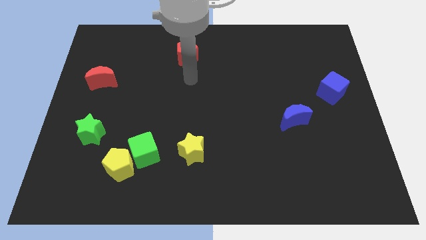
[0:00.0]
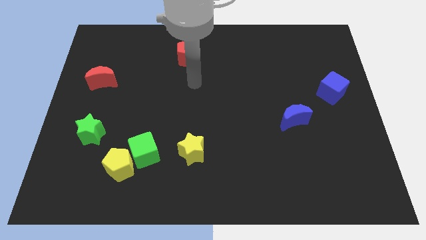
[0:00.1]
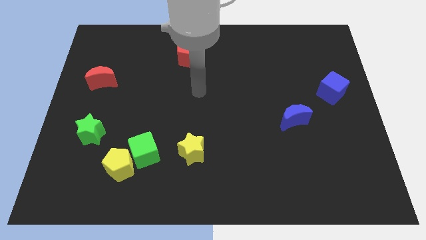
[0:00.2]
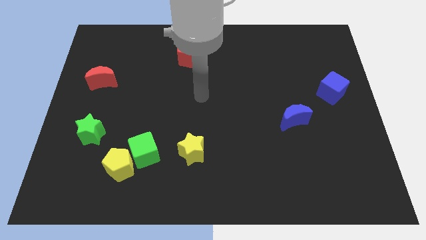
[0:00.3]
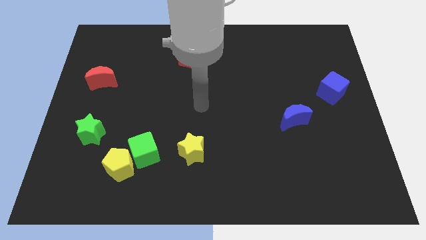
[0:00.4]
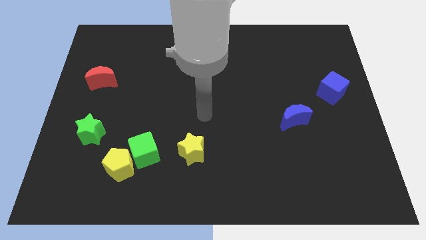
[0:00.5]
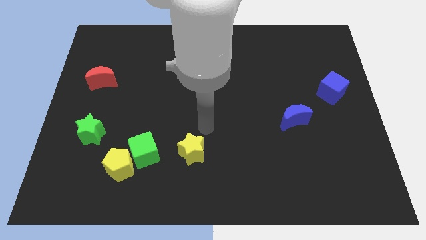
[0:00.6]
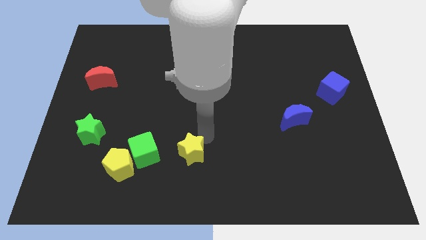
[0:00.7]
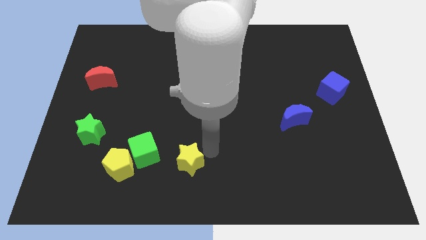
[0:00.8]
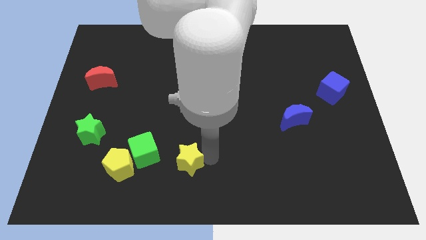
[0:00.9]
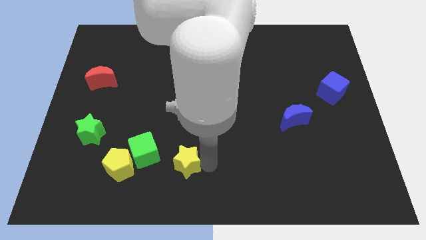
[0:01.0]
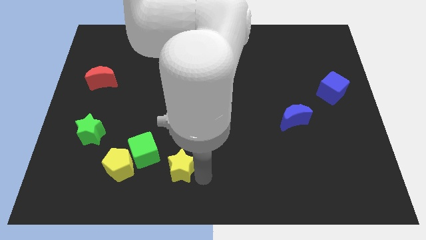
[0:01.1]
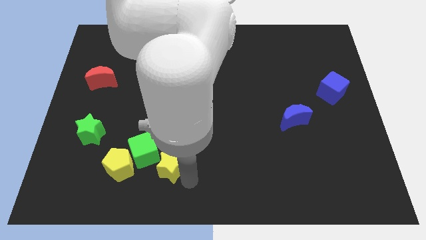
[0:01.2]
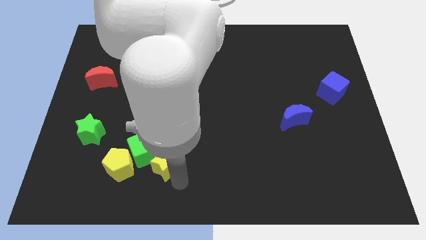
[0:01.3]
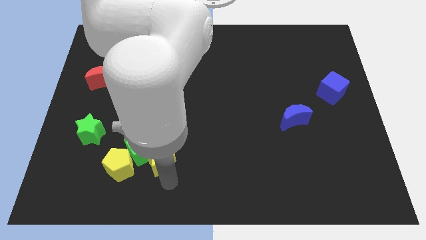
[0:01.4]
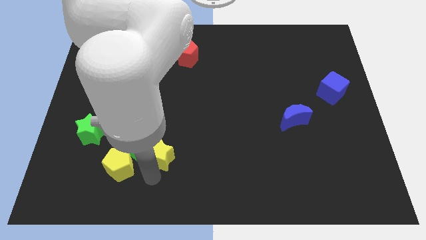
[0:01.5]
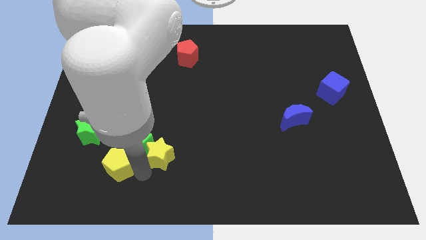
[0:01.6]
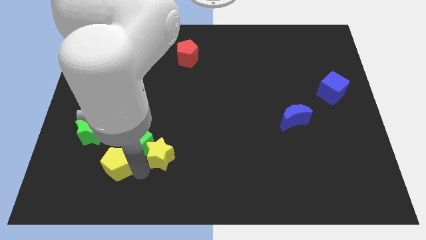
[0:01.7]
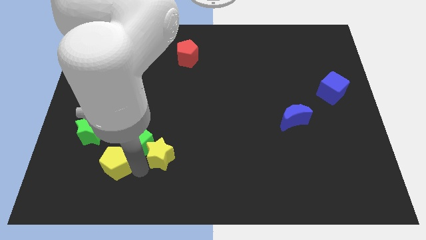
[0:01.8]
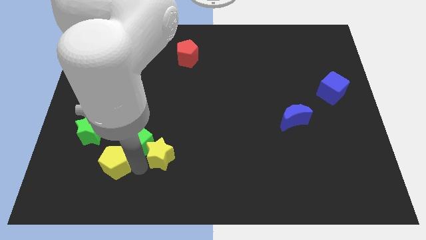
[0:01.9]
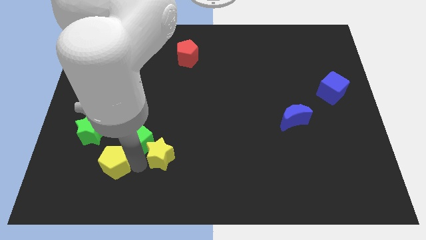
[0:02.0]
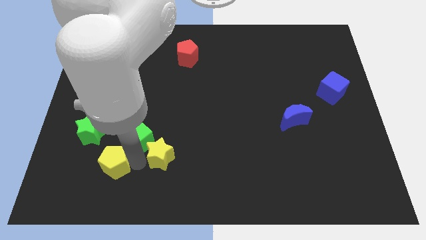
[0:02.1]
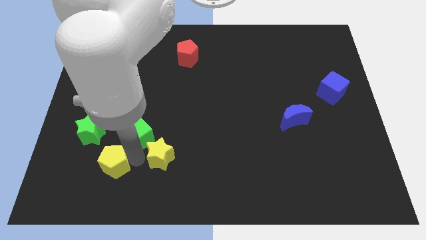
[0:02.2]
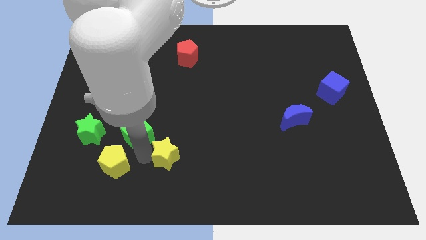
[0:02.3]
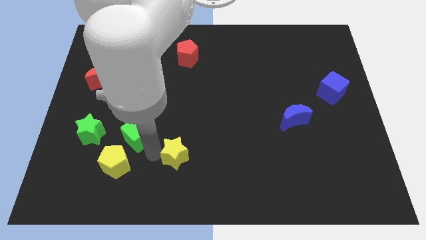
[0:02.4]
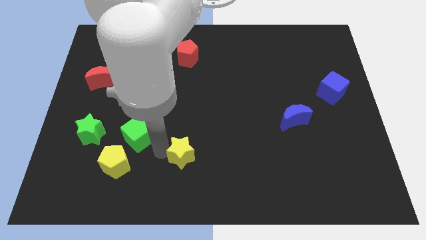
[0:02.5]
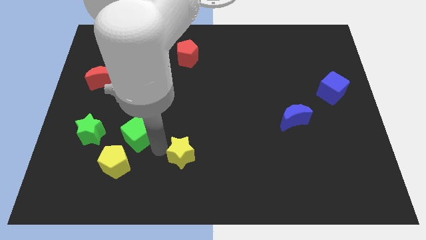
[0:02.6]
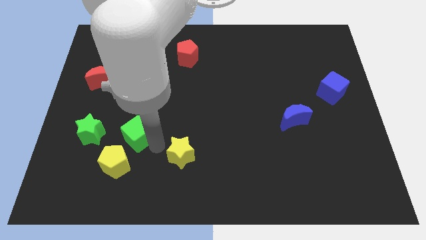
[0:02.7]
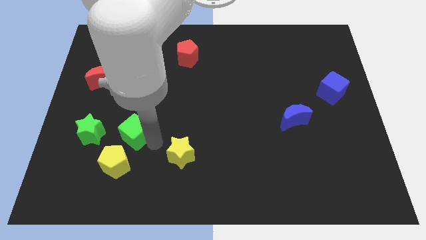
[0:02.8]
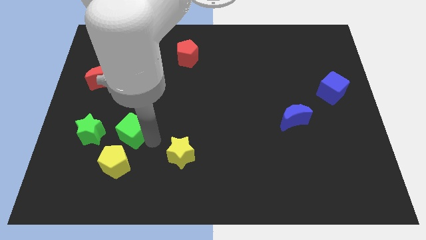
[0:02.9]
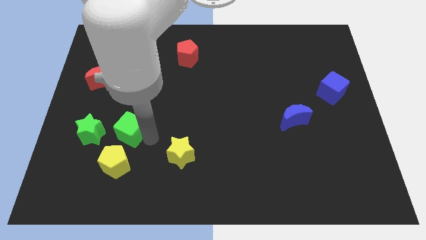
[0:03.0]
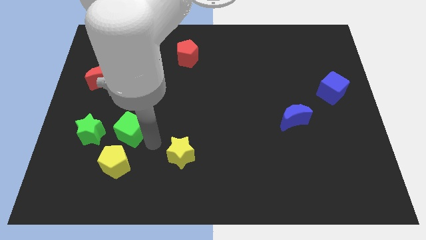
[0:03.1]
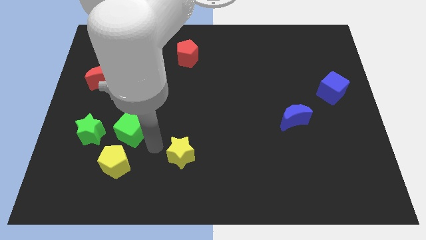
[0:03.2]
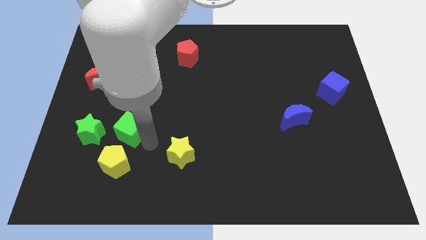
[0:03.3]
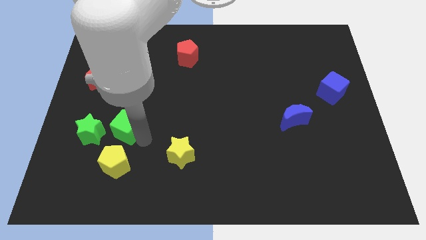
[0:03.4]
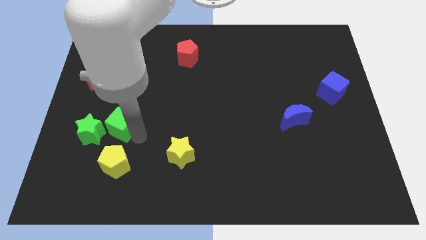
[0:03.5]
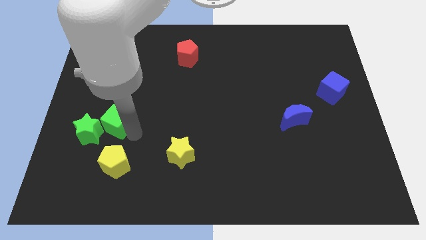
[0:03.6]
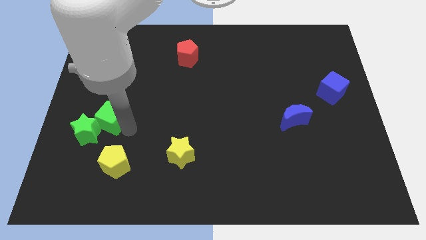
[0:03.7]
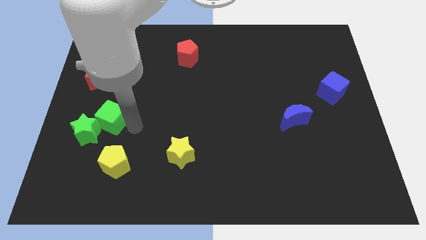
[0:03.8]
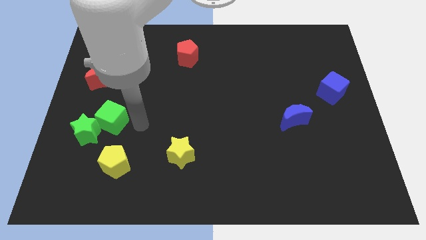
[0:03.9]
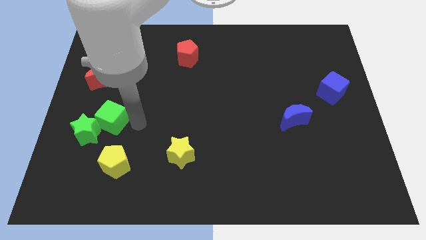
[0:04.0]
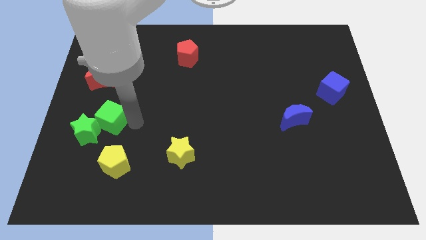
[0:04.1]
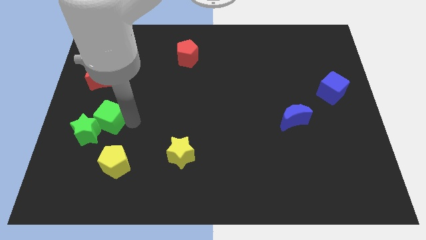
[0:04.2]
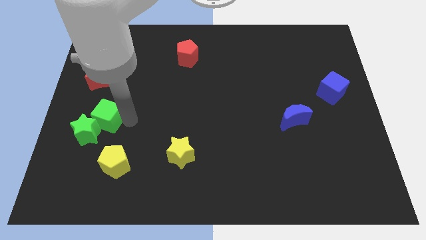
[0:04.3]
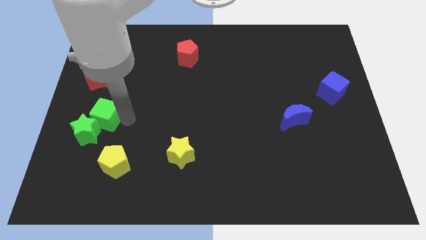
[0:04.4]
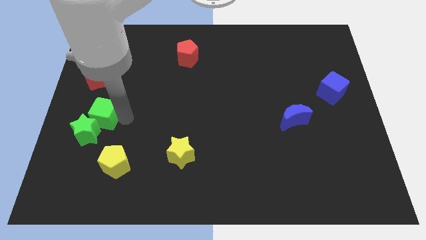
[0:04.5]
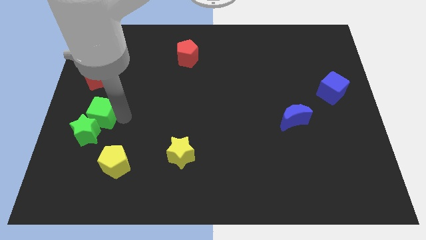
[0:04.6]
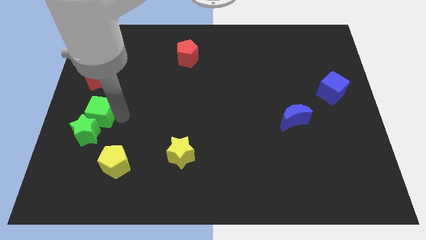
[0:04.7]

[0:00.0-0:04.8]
put the green cube to the left side

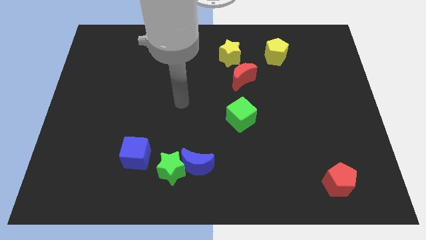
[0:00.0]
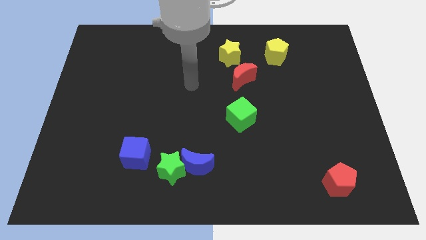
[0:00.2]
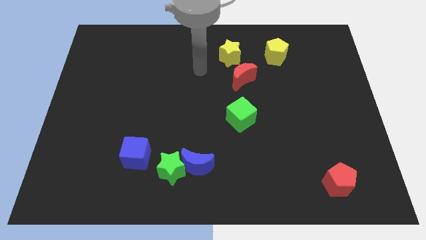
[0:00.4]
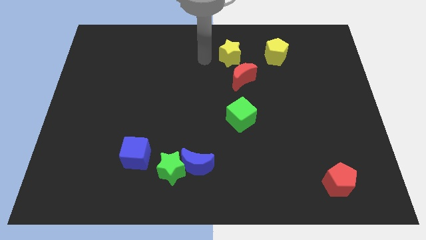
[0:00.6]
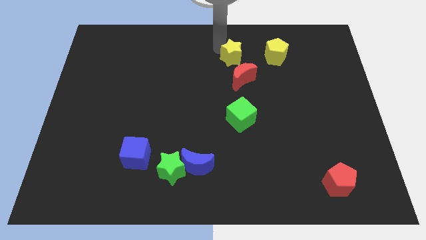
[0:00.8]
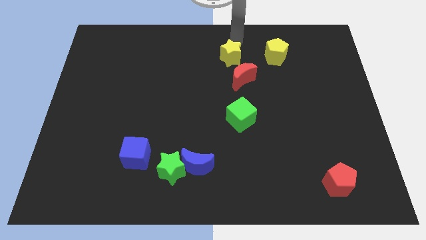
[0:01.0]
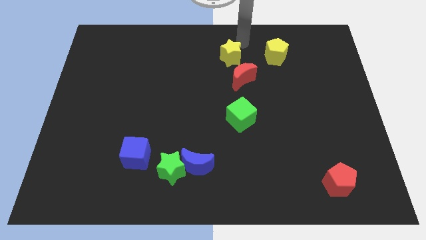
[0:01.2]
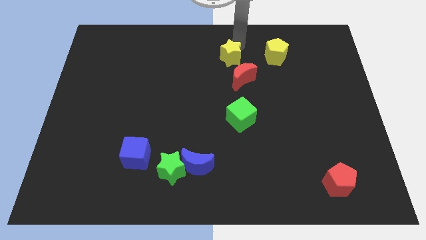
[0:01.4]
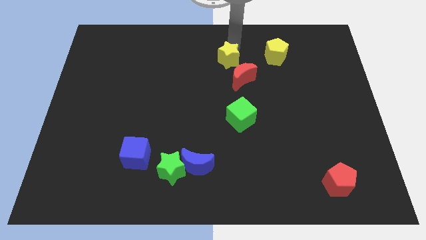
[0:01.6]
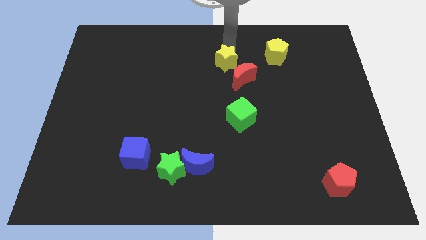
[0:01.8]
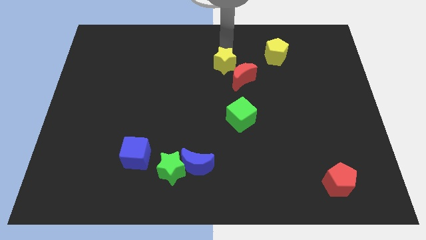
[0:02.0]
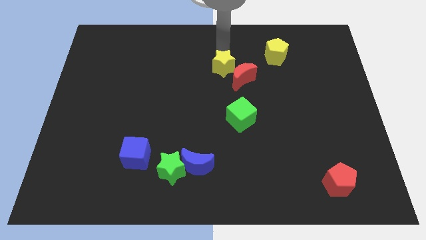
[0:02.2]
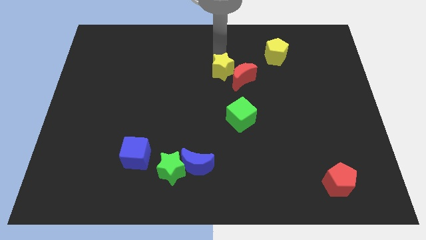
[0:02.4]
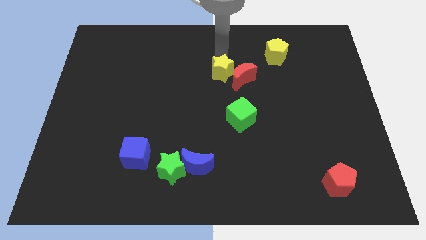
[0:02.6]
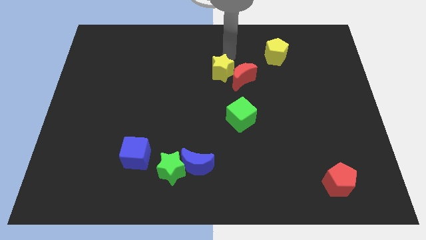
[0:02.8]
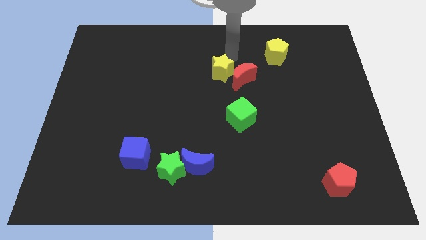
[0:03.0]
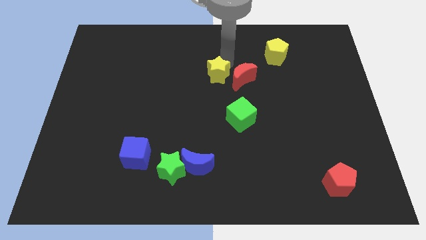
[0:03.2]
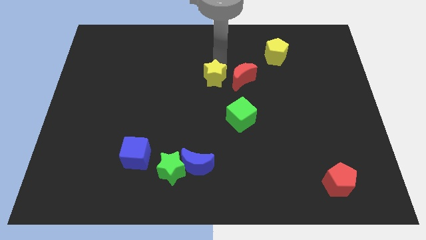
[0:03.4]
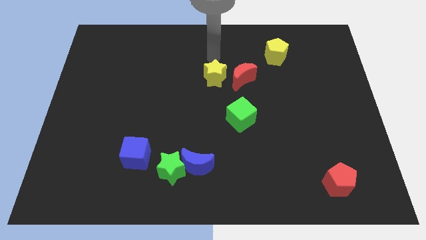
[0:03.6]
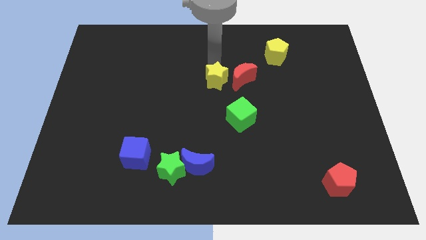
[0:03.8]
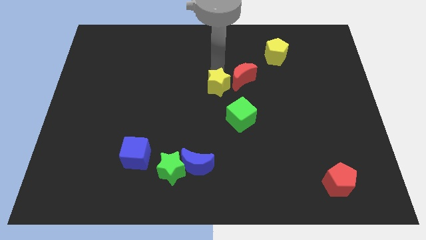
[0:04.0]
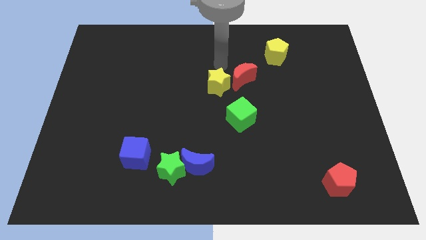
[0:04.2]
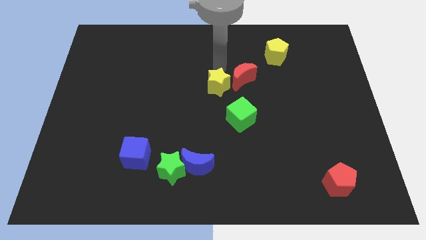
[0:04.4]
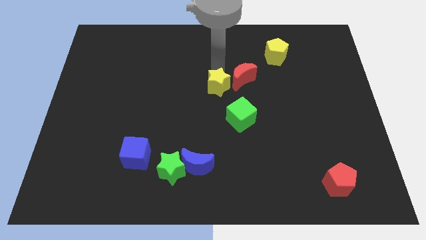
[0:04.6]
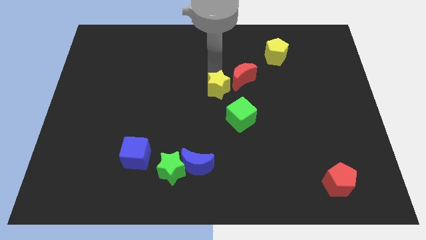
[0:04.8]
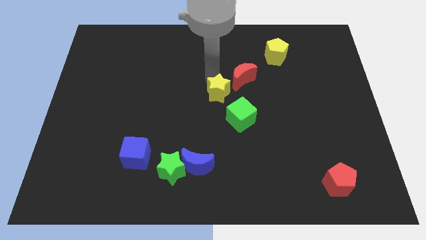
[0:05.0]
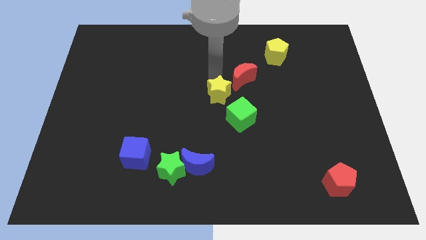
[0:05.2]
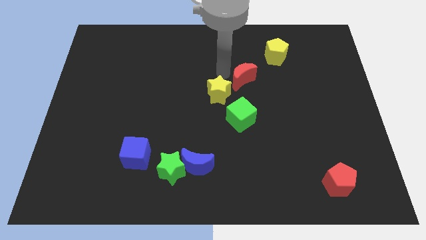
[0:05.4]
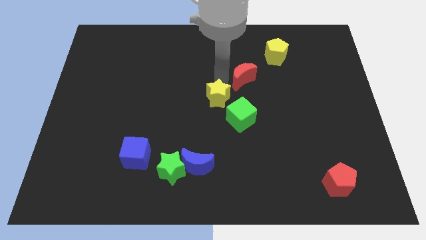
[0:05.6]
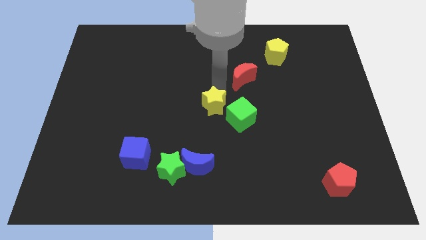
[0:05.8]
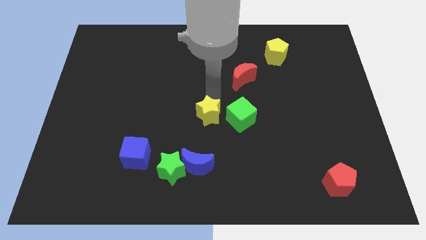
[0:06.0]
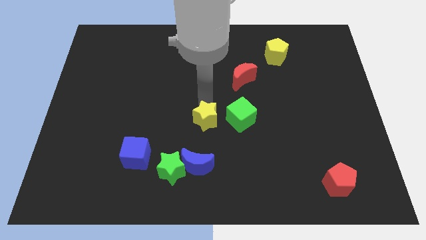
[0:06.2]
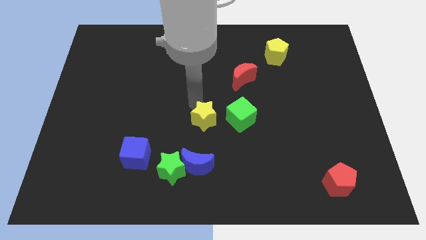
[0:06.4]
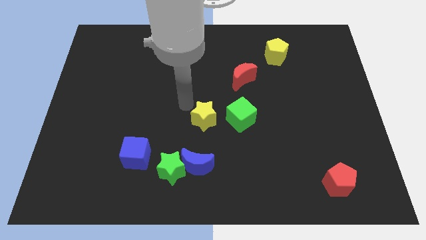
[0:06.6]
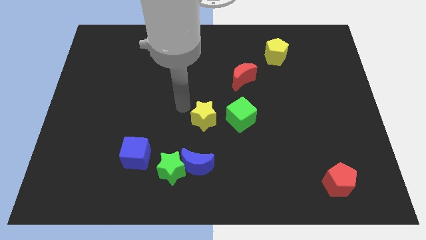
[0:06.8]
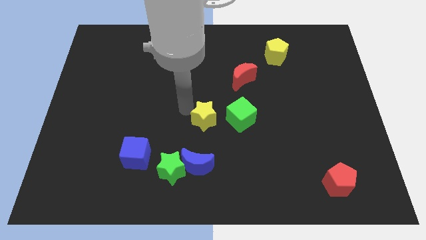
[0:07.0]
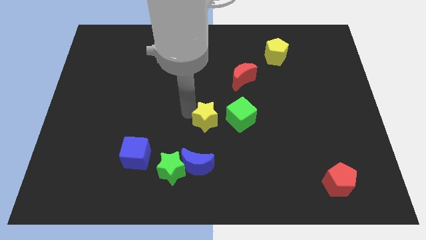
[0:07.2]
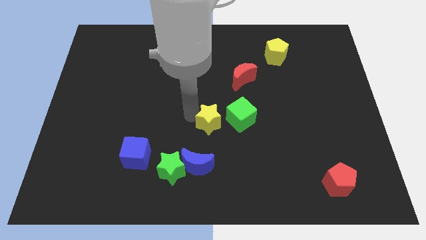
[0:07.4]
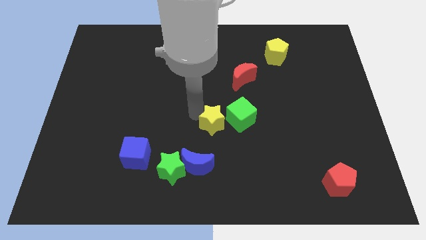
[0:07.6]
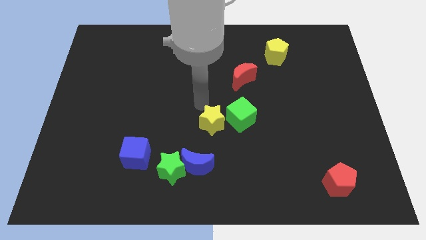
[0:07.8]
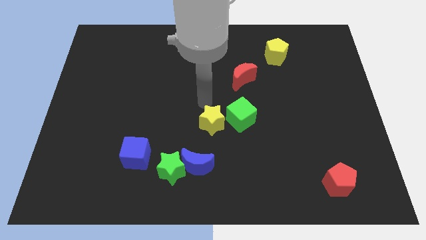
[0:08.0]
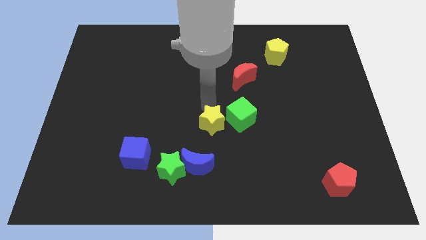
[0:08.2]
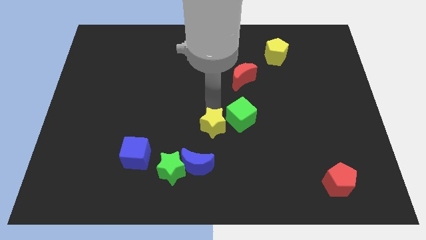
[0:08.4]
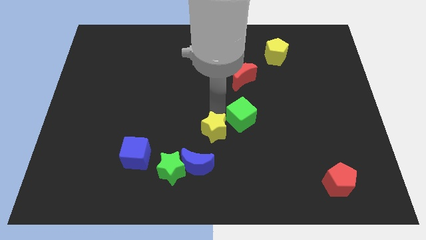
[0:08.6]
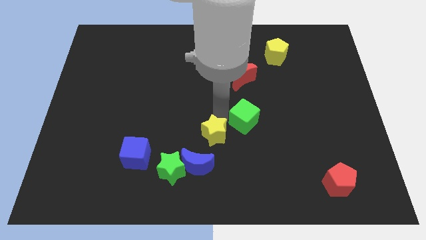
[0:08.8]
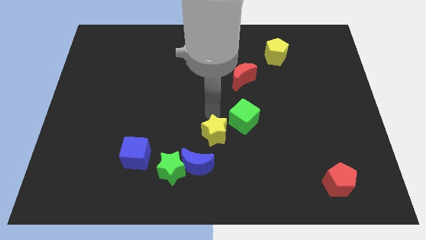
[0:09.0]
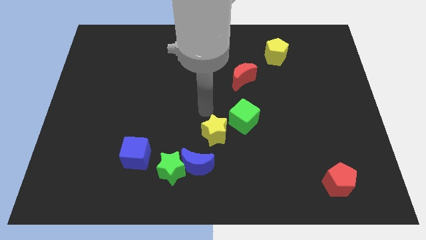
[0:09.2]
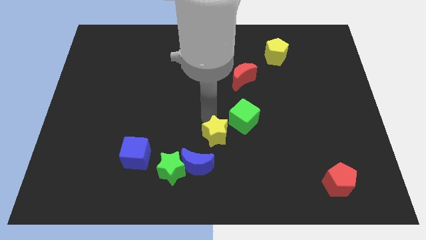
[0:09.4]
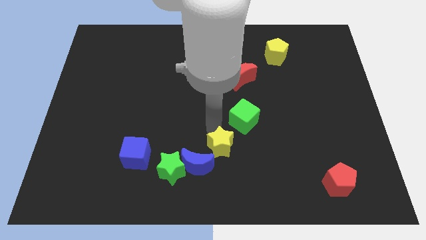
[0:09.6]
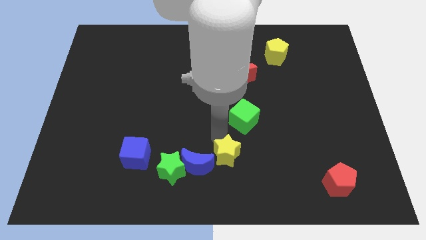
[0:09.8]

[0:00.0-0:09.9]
put the yellow star to the bottom side
